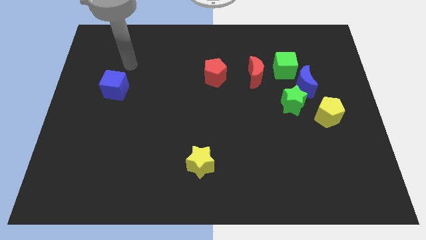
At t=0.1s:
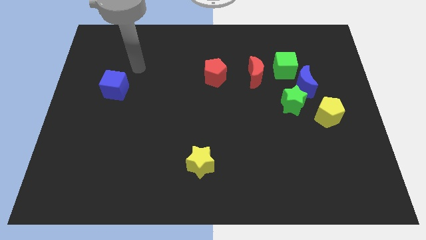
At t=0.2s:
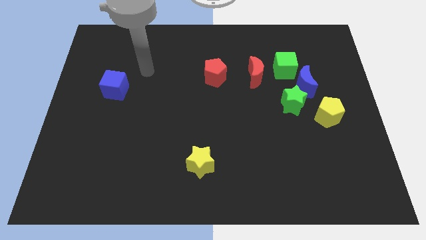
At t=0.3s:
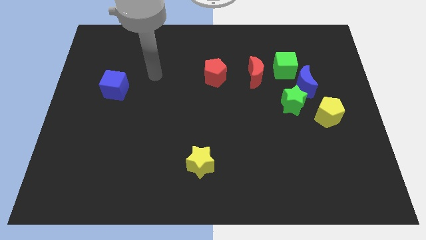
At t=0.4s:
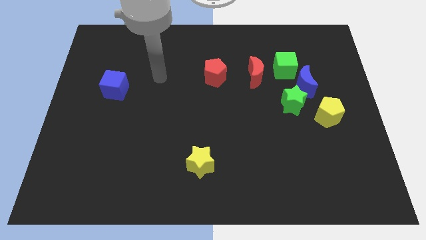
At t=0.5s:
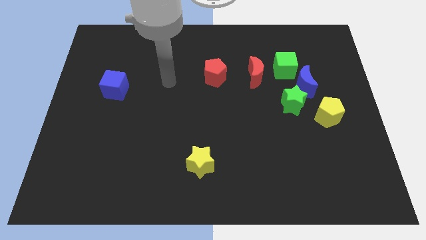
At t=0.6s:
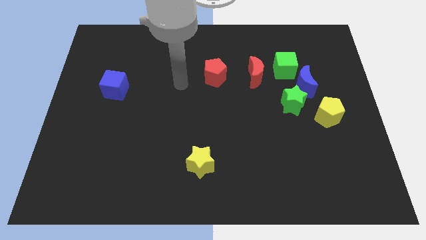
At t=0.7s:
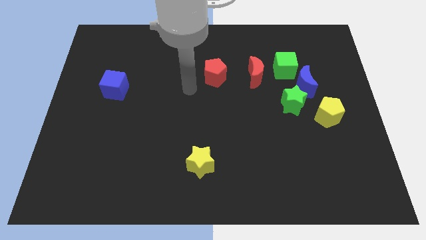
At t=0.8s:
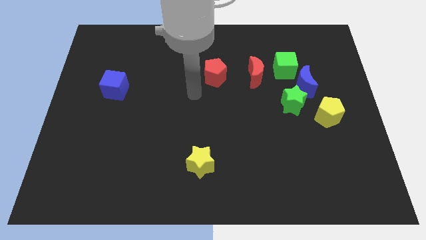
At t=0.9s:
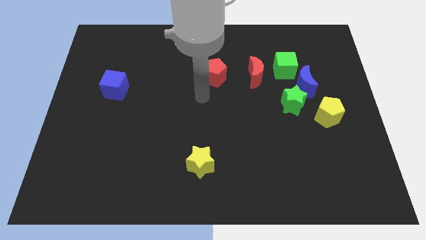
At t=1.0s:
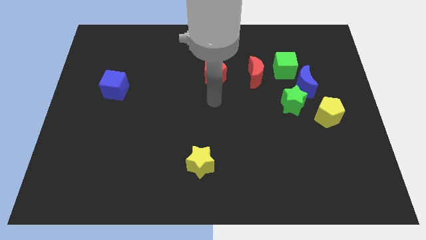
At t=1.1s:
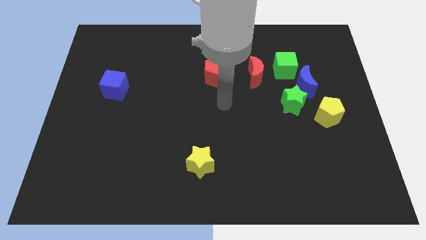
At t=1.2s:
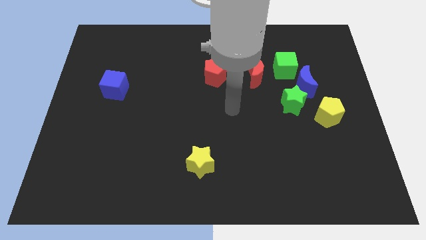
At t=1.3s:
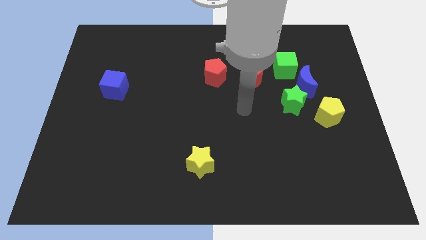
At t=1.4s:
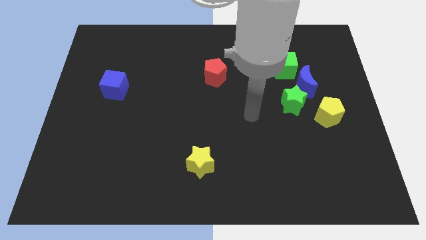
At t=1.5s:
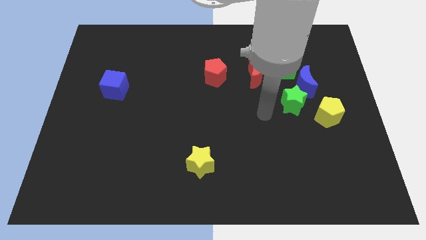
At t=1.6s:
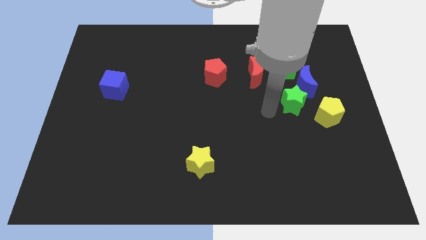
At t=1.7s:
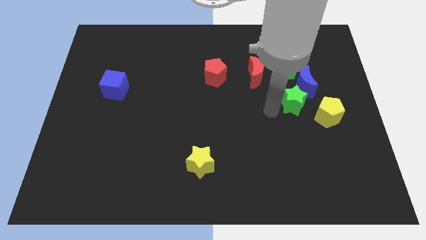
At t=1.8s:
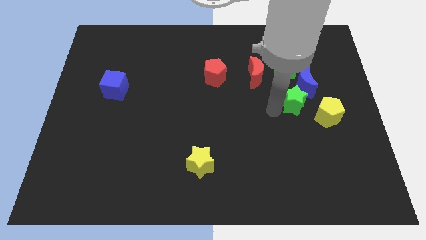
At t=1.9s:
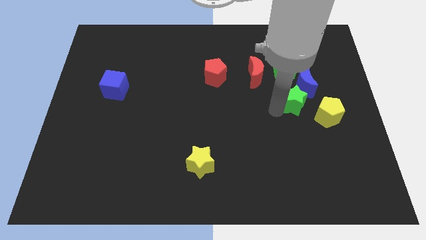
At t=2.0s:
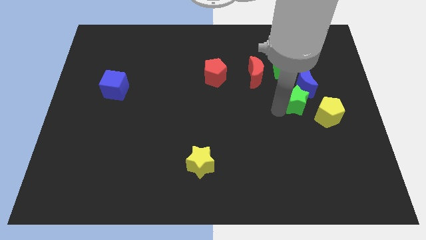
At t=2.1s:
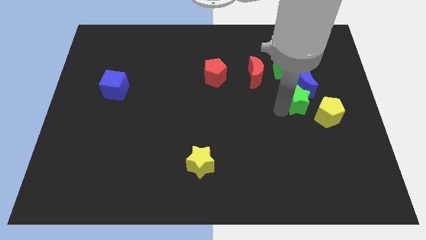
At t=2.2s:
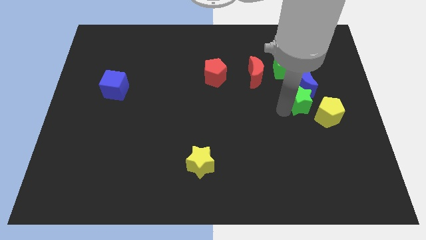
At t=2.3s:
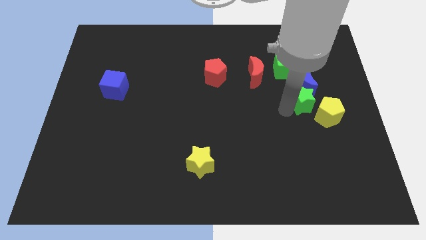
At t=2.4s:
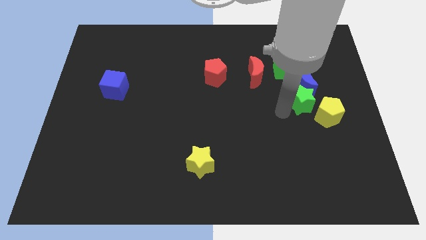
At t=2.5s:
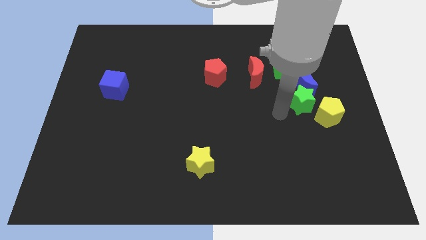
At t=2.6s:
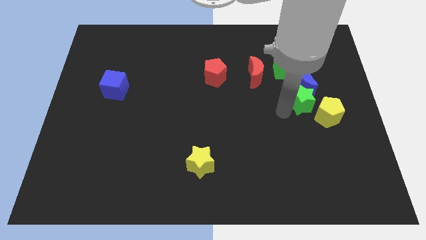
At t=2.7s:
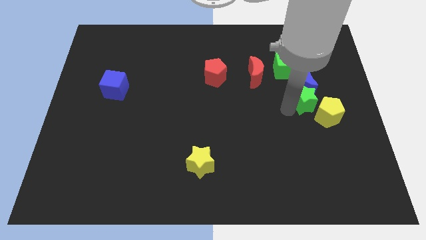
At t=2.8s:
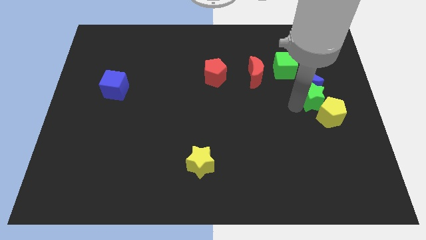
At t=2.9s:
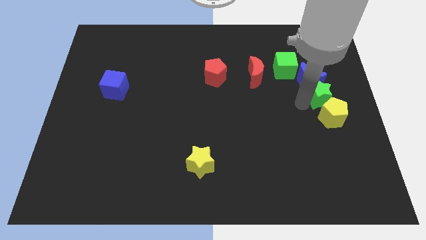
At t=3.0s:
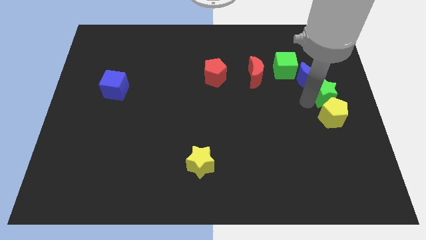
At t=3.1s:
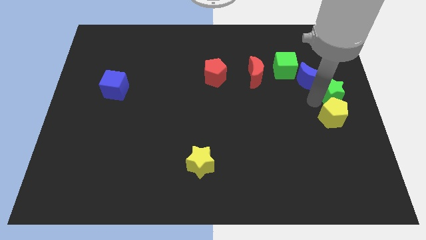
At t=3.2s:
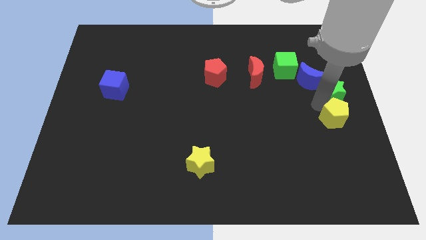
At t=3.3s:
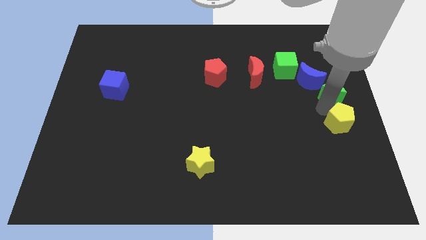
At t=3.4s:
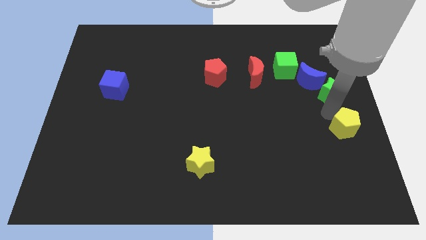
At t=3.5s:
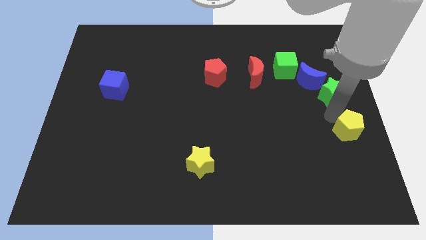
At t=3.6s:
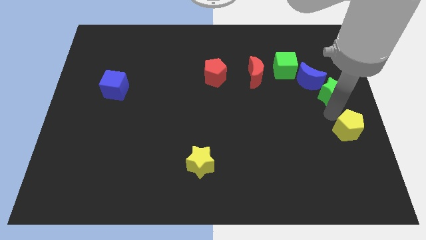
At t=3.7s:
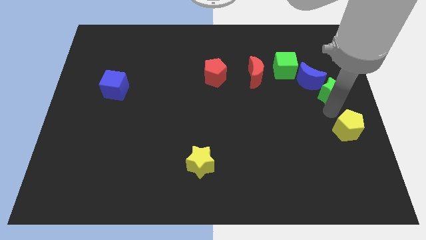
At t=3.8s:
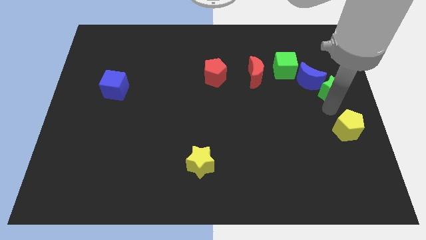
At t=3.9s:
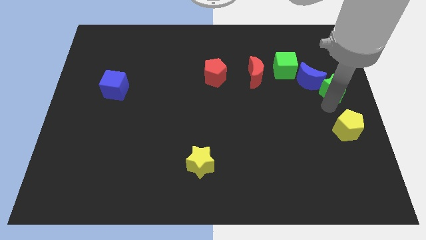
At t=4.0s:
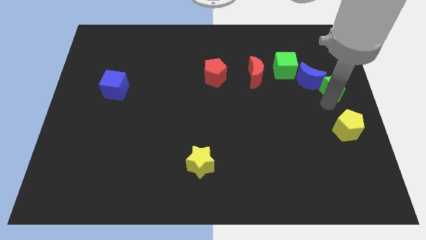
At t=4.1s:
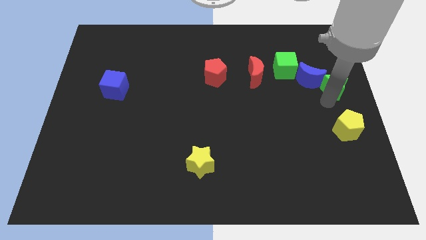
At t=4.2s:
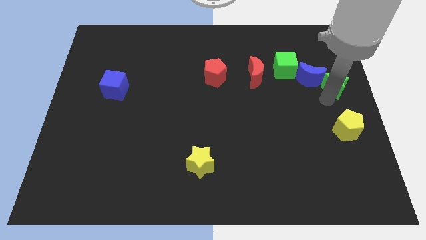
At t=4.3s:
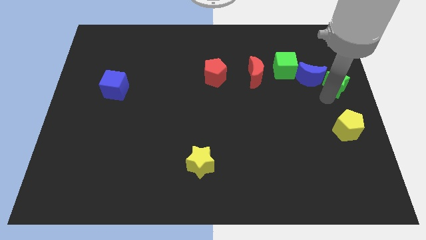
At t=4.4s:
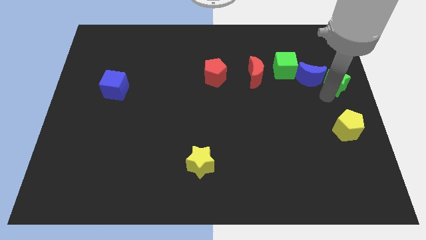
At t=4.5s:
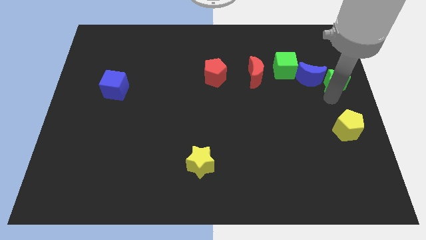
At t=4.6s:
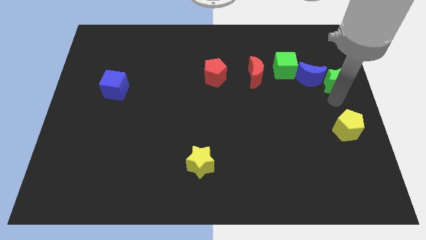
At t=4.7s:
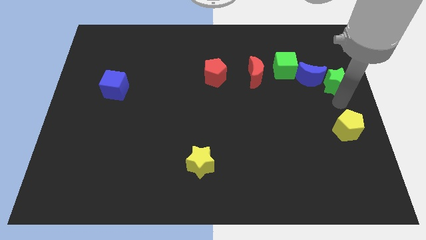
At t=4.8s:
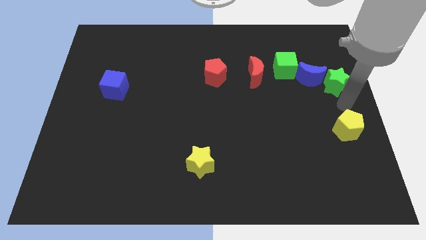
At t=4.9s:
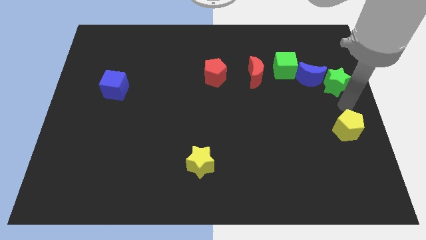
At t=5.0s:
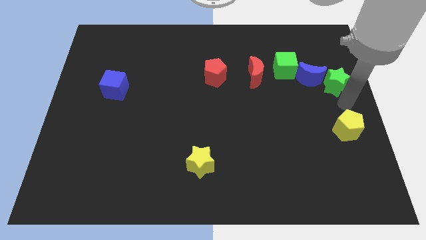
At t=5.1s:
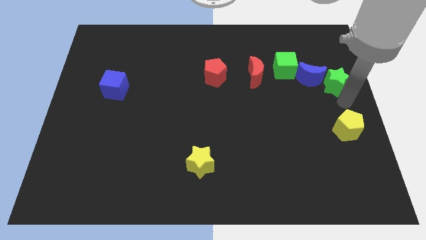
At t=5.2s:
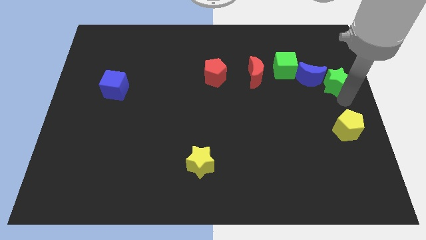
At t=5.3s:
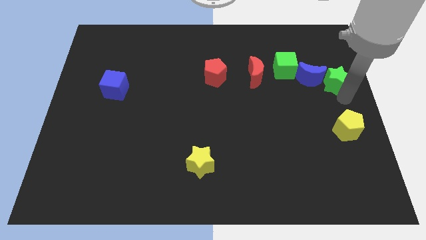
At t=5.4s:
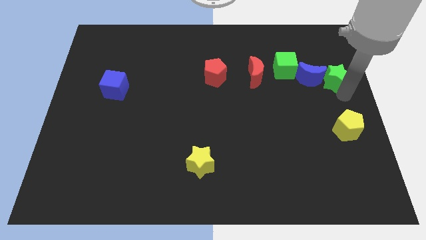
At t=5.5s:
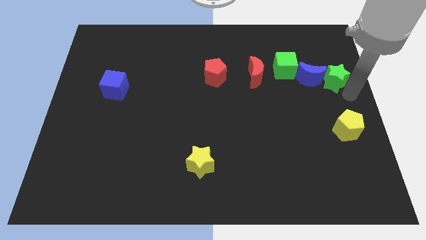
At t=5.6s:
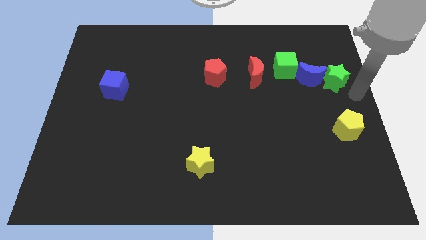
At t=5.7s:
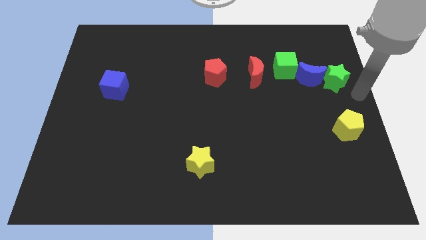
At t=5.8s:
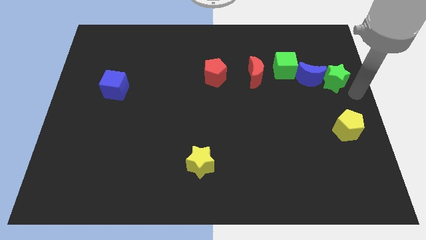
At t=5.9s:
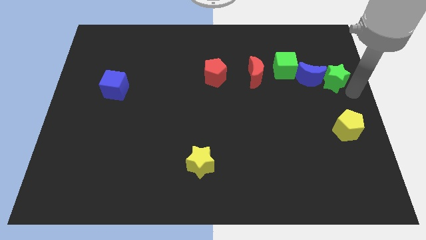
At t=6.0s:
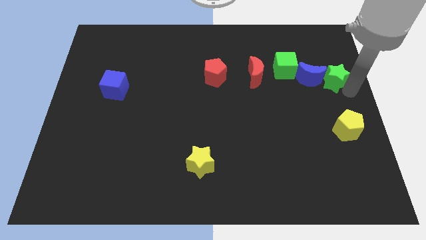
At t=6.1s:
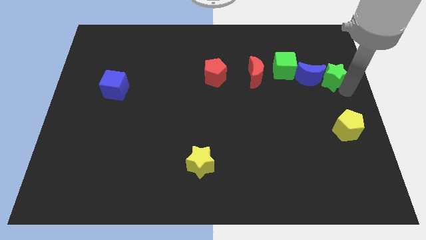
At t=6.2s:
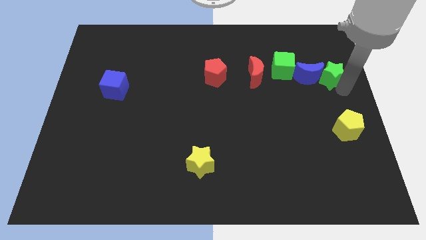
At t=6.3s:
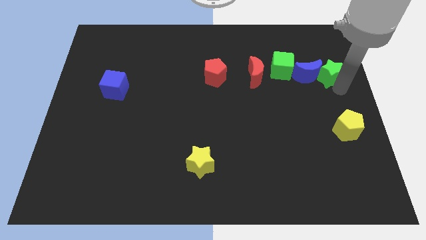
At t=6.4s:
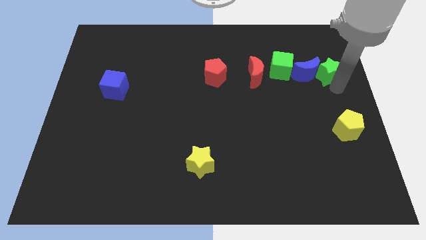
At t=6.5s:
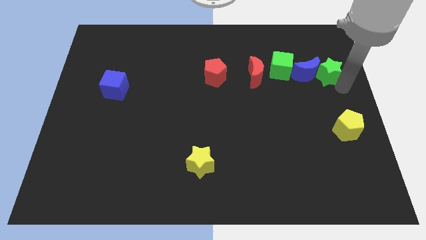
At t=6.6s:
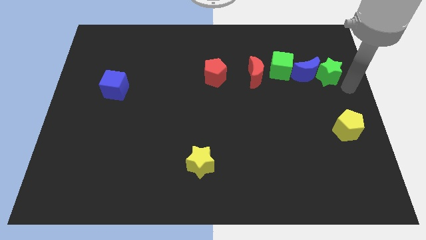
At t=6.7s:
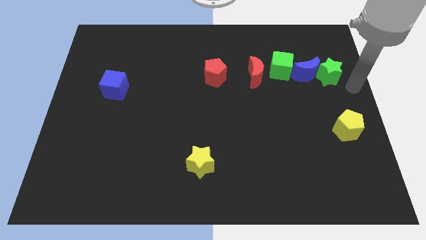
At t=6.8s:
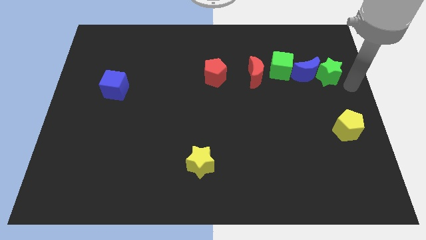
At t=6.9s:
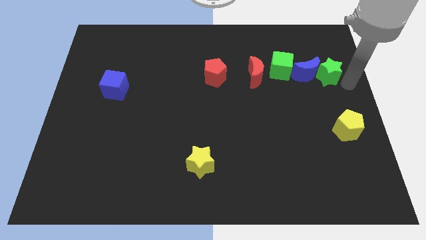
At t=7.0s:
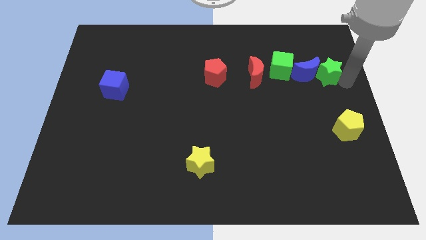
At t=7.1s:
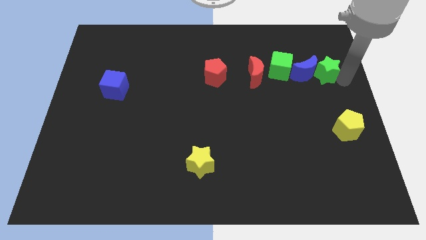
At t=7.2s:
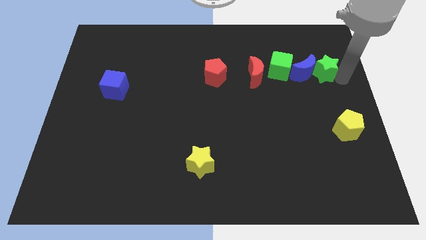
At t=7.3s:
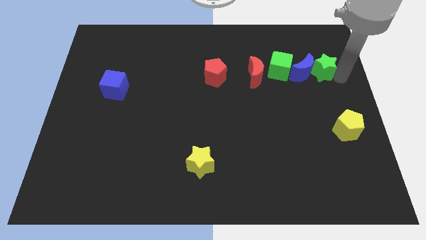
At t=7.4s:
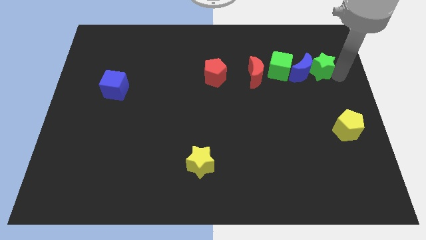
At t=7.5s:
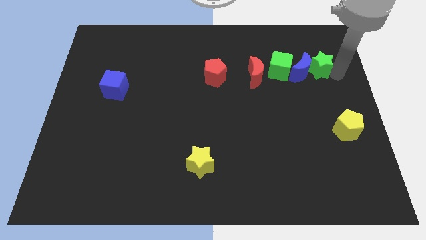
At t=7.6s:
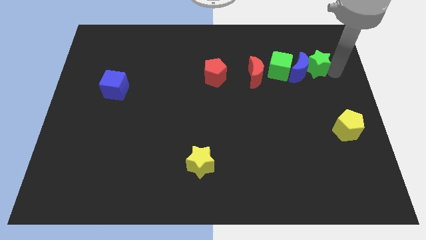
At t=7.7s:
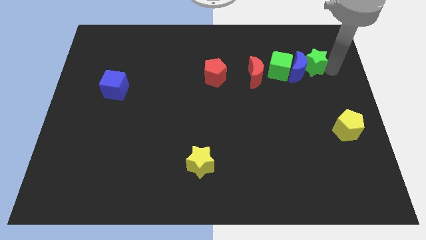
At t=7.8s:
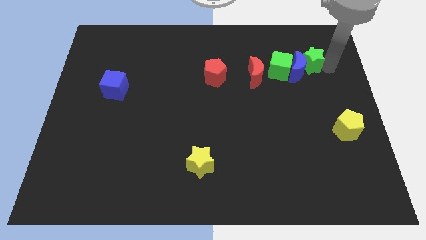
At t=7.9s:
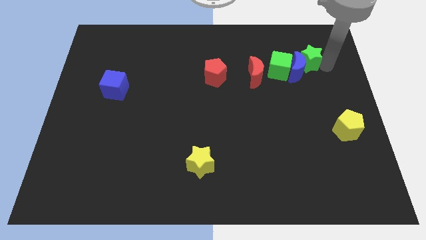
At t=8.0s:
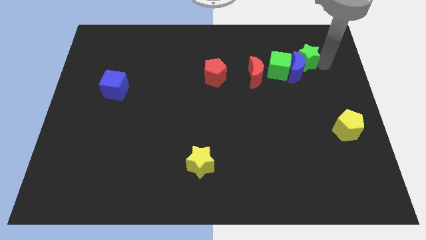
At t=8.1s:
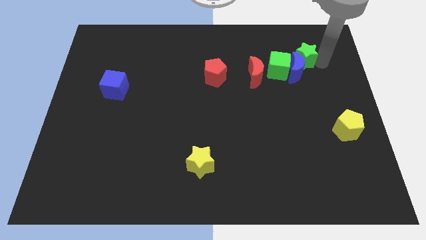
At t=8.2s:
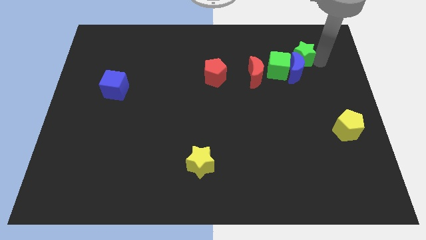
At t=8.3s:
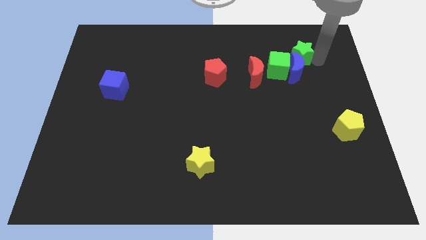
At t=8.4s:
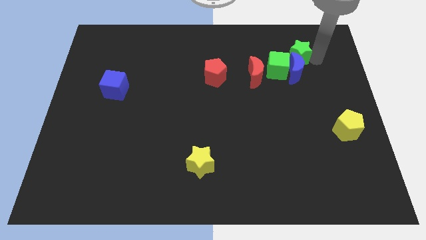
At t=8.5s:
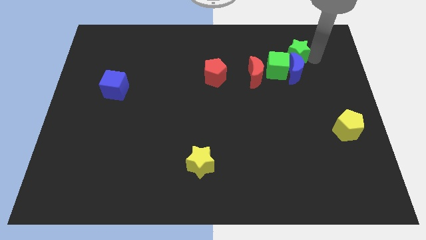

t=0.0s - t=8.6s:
put the green star to the top left of the blue moon
